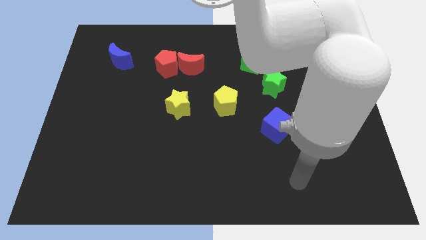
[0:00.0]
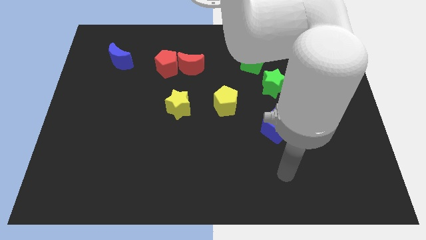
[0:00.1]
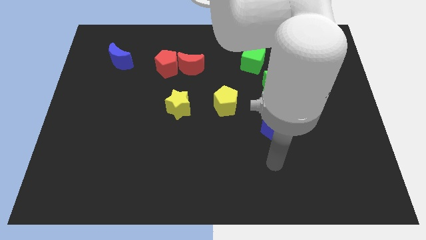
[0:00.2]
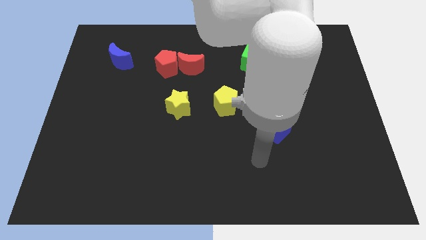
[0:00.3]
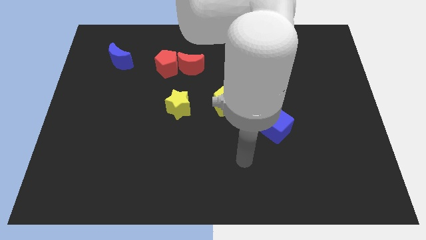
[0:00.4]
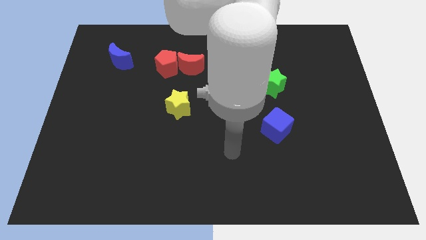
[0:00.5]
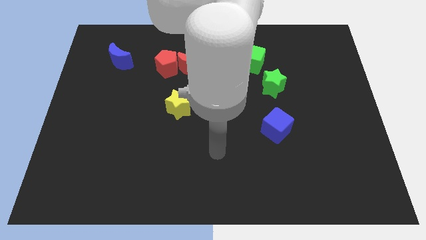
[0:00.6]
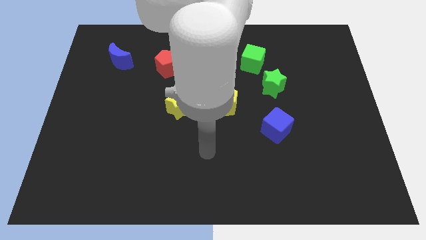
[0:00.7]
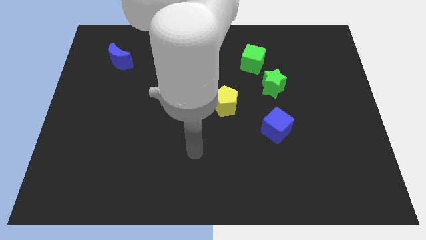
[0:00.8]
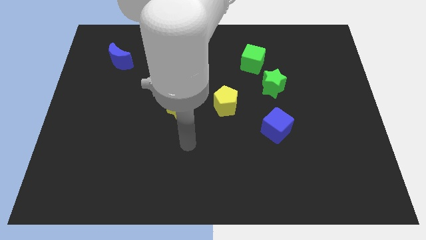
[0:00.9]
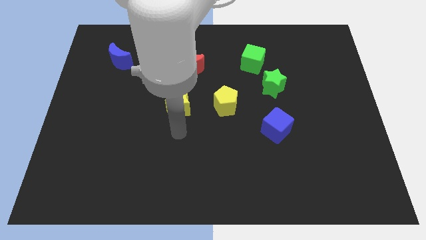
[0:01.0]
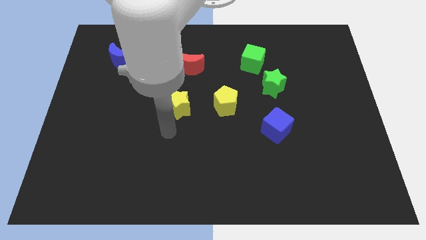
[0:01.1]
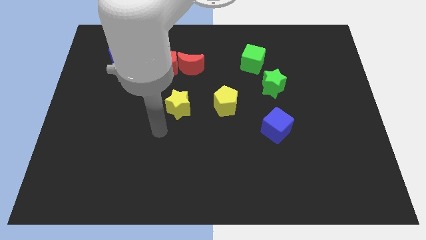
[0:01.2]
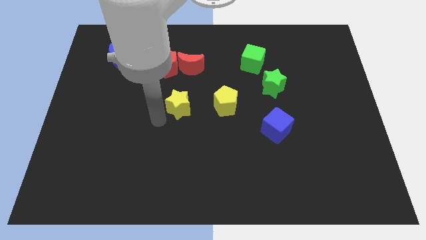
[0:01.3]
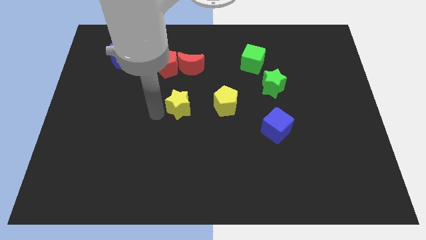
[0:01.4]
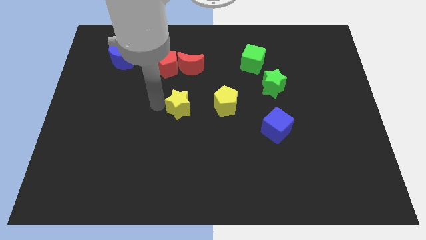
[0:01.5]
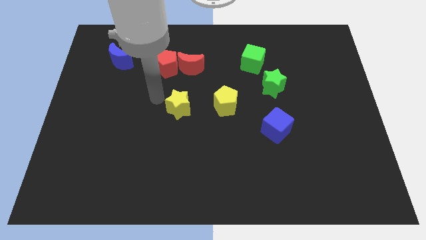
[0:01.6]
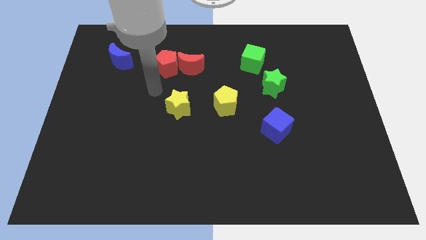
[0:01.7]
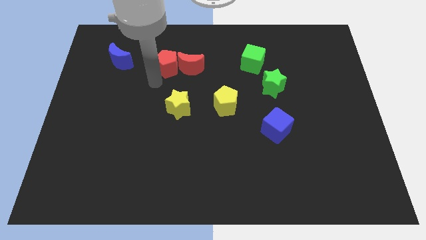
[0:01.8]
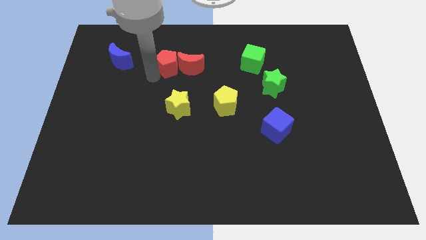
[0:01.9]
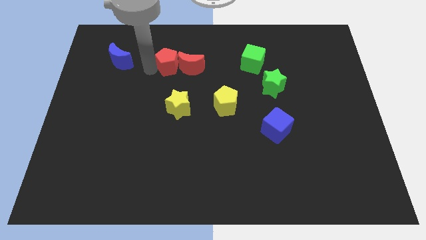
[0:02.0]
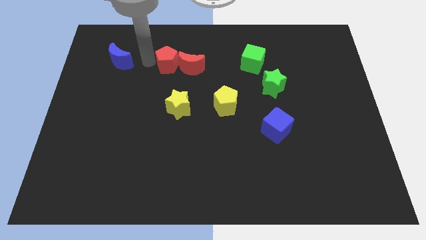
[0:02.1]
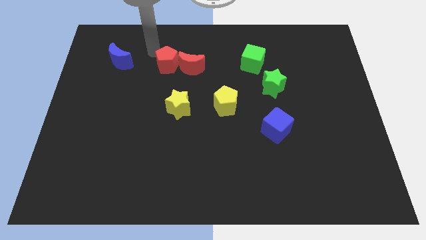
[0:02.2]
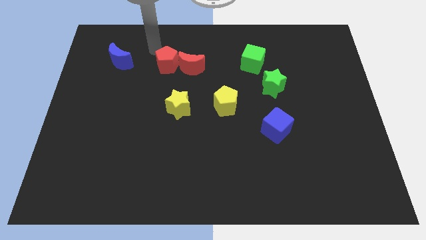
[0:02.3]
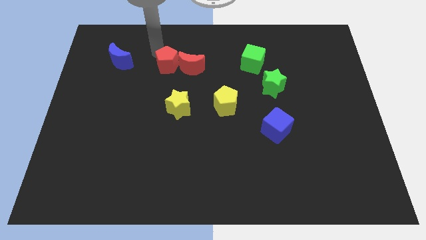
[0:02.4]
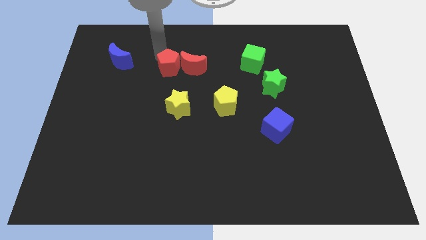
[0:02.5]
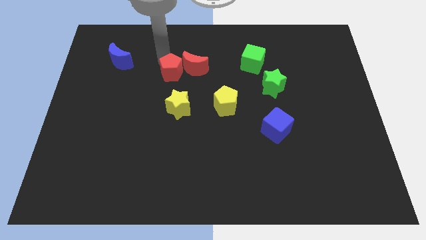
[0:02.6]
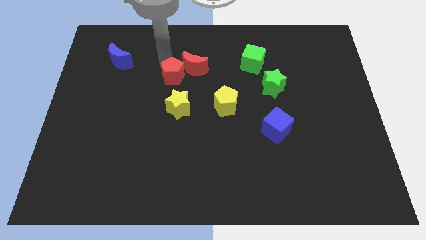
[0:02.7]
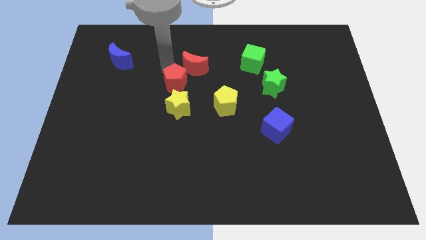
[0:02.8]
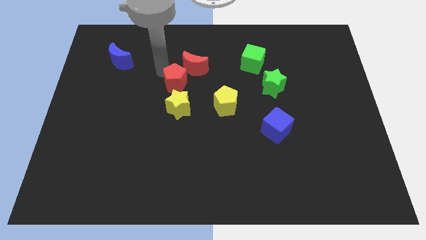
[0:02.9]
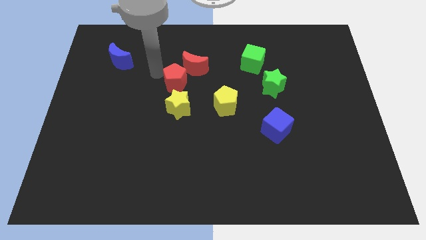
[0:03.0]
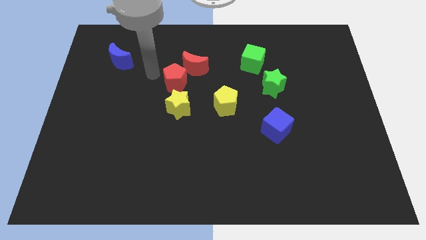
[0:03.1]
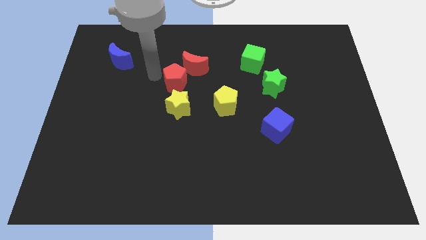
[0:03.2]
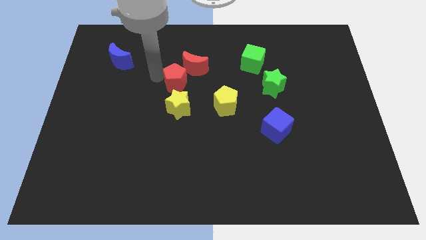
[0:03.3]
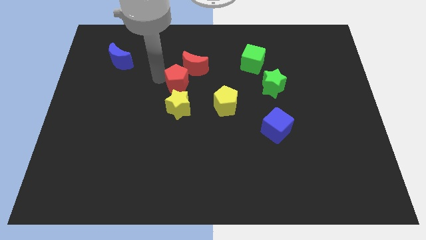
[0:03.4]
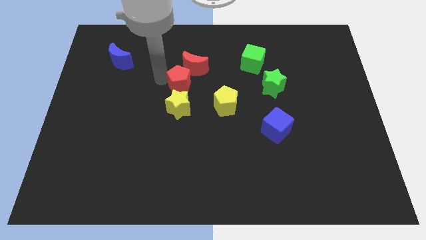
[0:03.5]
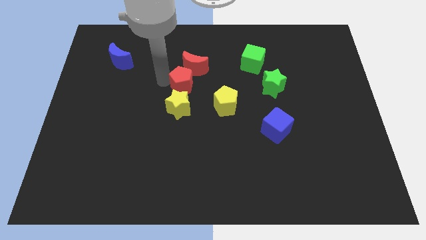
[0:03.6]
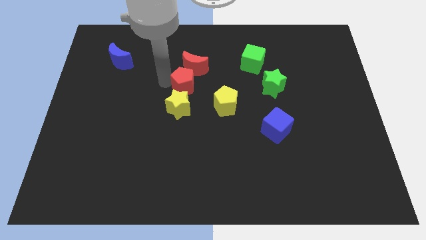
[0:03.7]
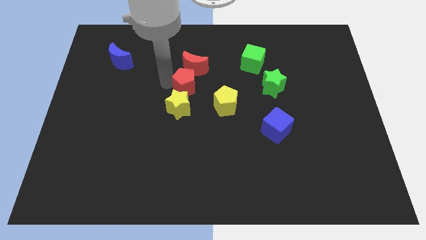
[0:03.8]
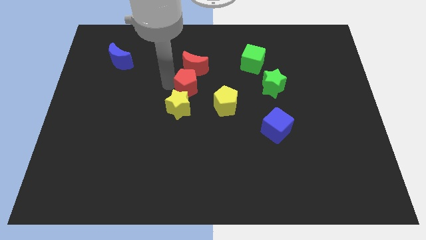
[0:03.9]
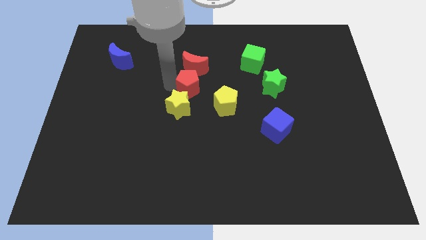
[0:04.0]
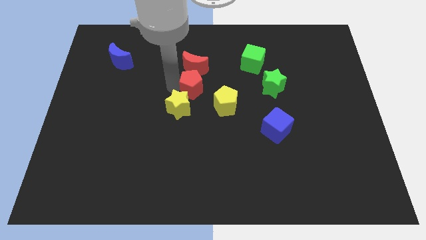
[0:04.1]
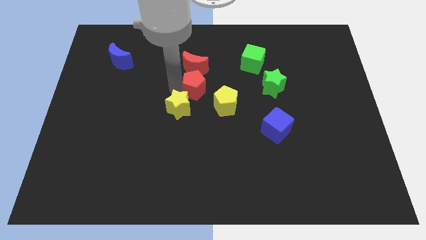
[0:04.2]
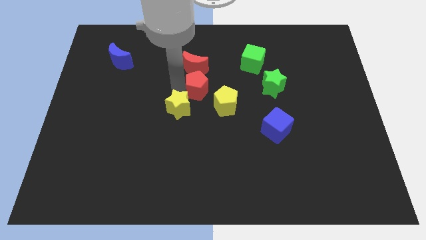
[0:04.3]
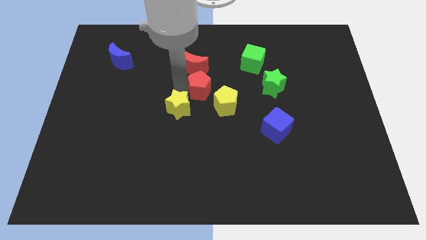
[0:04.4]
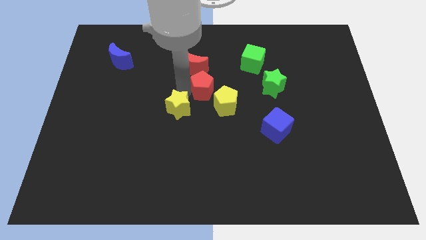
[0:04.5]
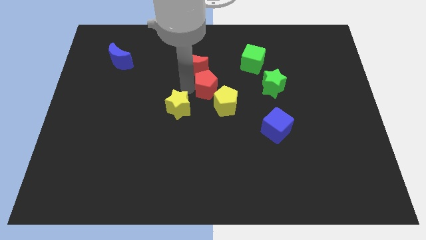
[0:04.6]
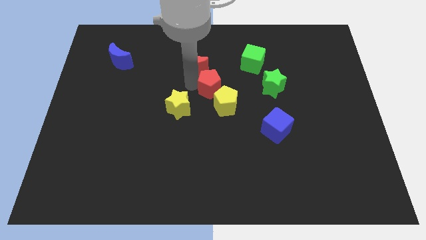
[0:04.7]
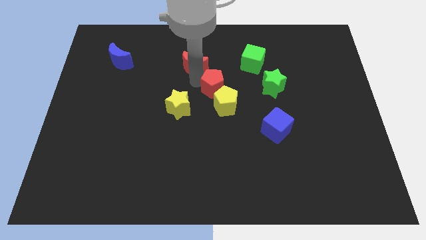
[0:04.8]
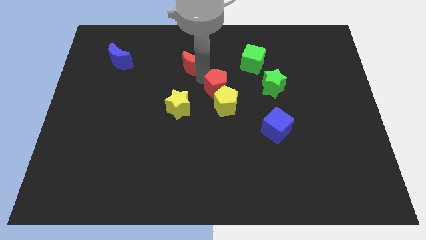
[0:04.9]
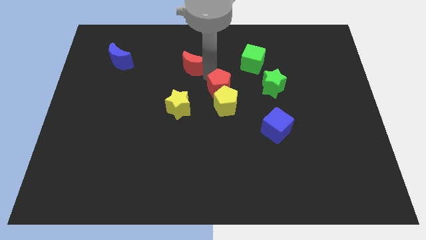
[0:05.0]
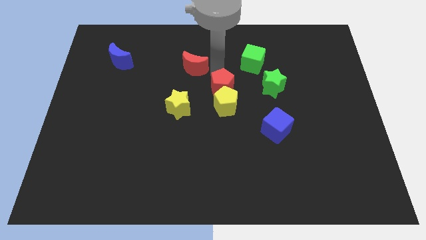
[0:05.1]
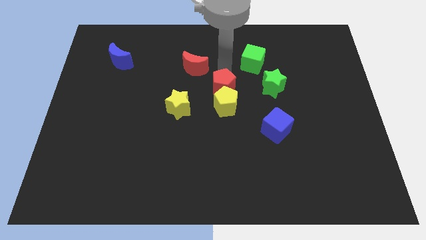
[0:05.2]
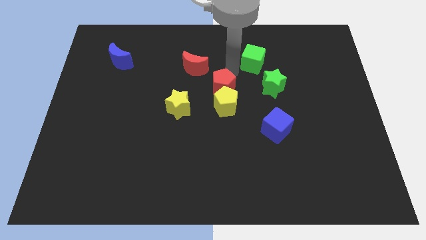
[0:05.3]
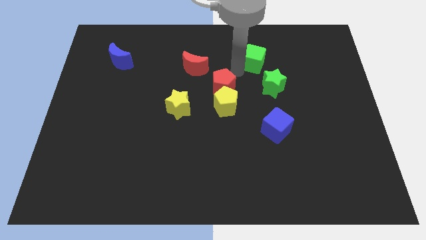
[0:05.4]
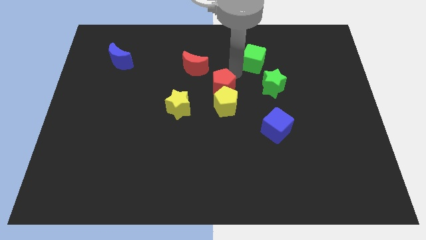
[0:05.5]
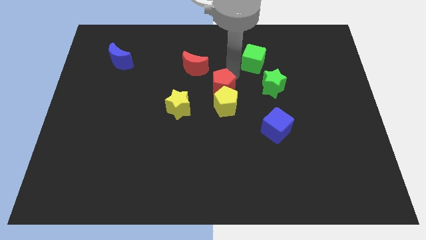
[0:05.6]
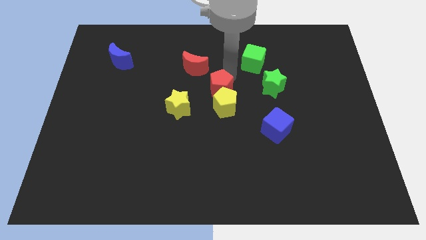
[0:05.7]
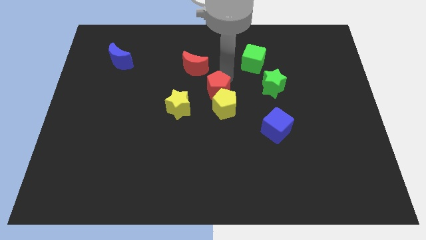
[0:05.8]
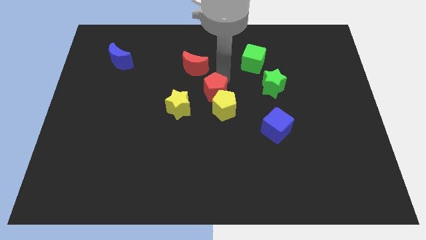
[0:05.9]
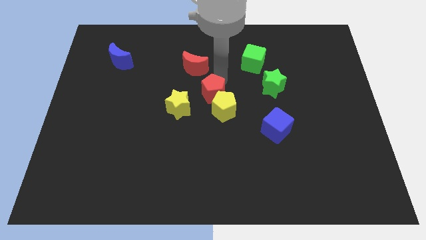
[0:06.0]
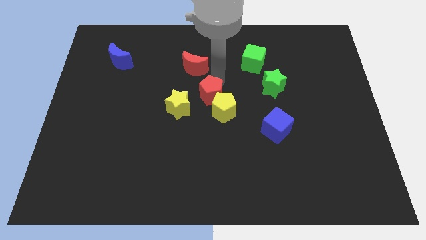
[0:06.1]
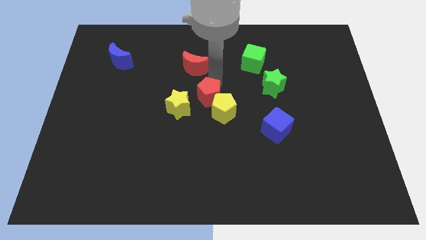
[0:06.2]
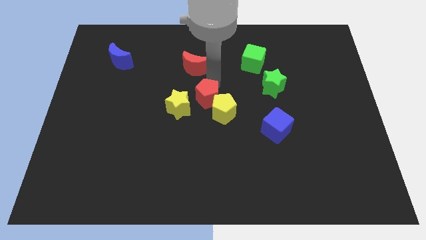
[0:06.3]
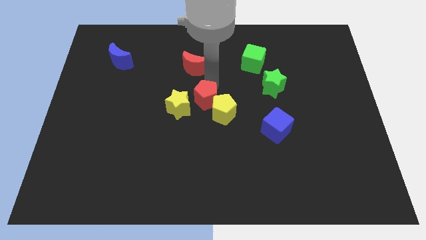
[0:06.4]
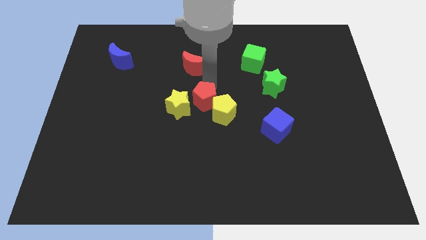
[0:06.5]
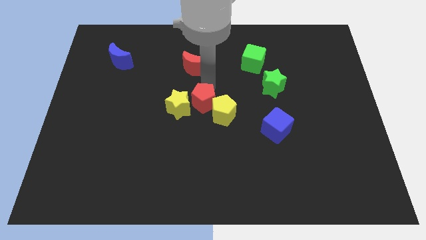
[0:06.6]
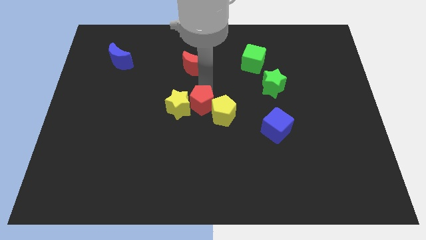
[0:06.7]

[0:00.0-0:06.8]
put the red pentagon to the bottom right side of the yellow star
